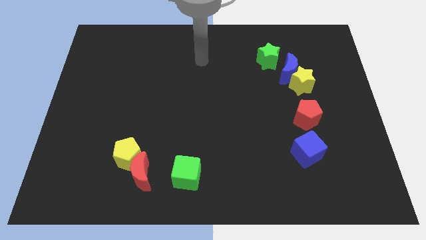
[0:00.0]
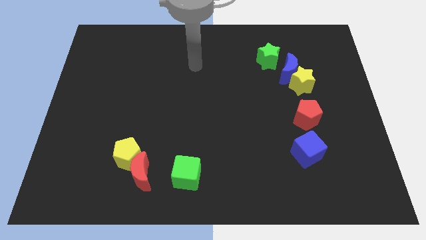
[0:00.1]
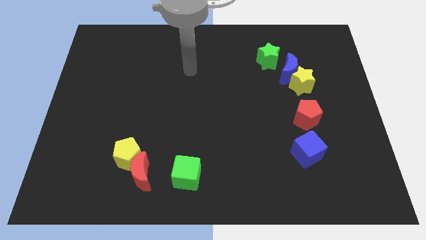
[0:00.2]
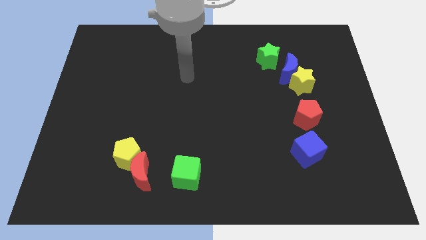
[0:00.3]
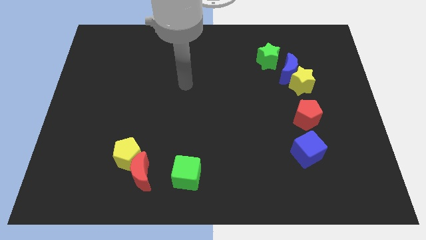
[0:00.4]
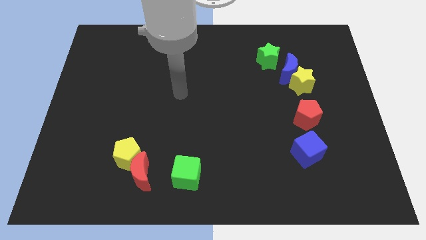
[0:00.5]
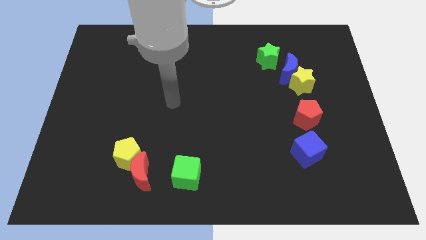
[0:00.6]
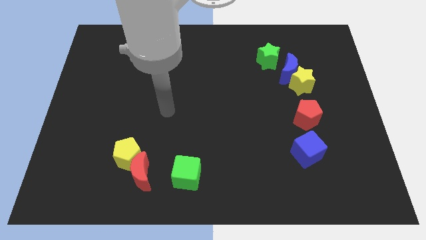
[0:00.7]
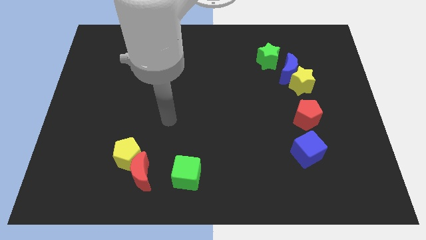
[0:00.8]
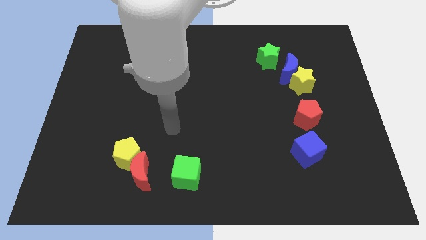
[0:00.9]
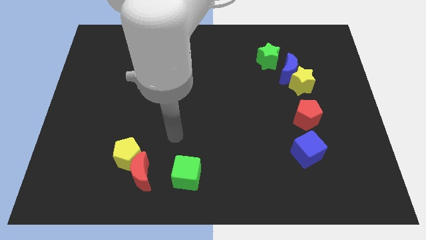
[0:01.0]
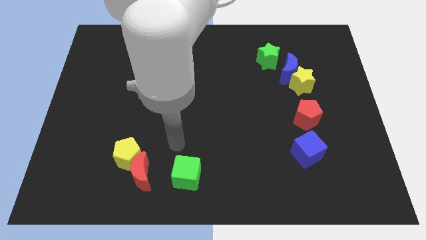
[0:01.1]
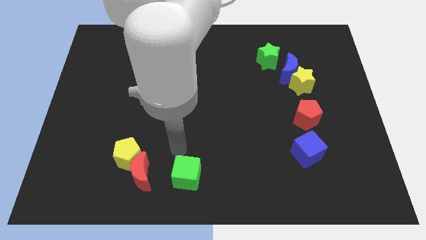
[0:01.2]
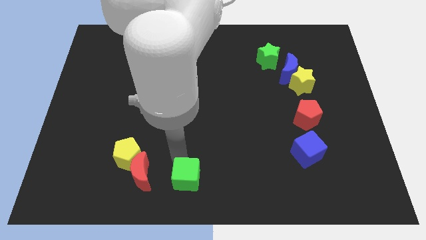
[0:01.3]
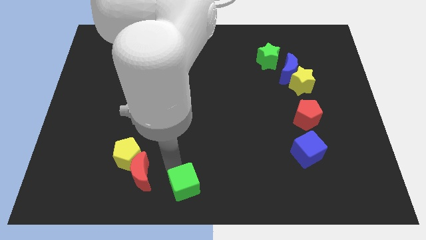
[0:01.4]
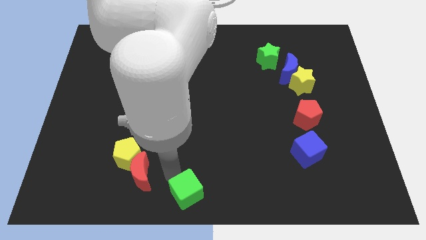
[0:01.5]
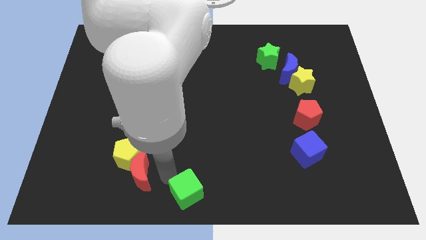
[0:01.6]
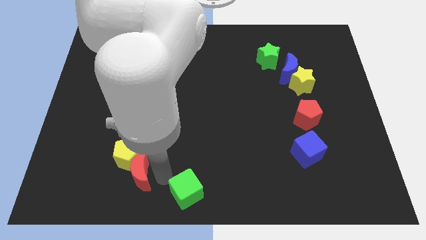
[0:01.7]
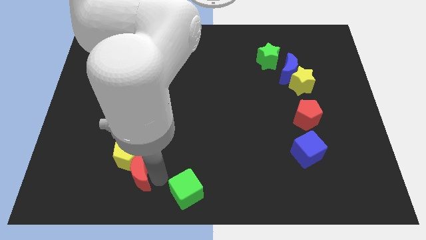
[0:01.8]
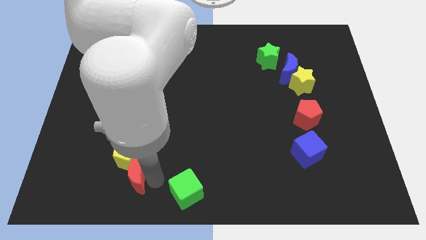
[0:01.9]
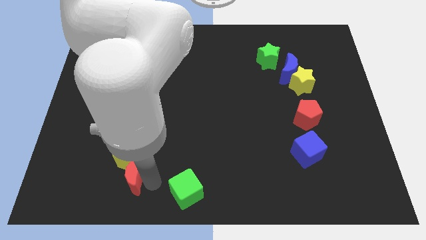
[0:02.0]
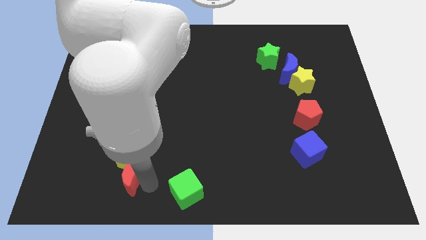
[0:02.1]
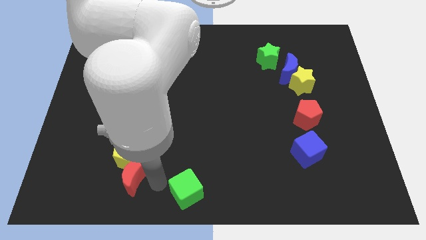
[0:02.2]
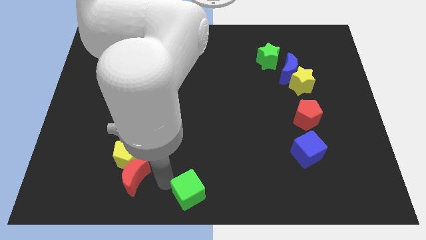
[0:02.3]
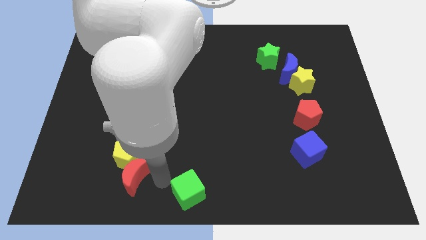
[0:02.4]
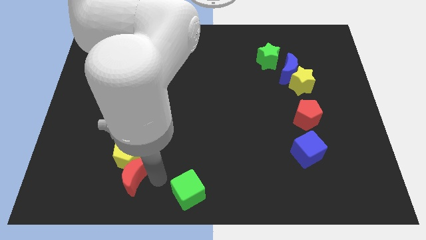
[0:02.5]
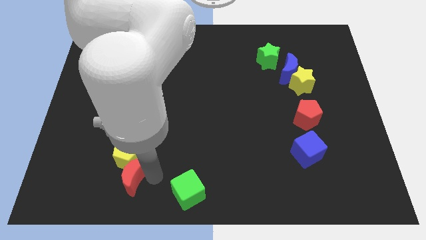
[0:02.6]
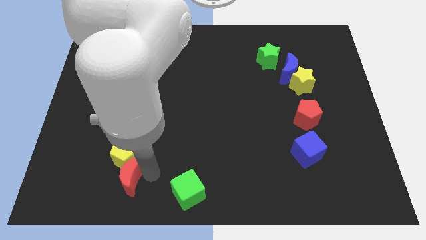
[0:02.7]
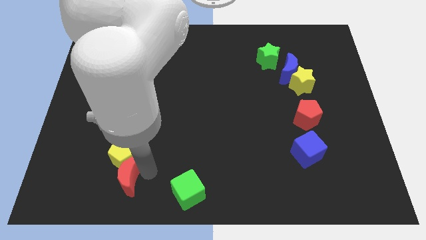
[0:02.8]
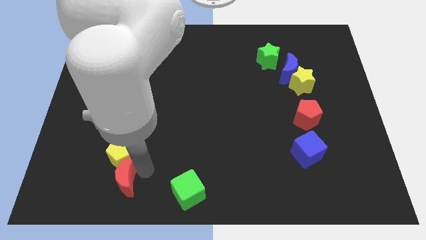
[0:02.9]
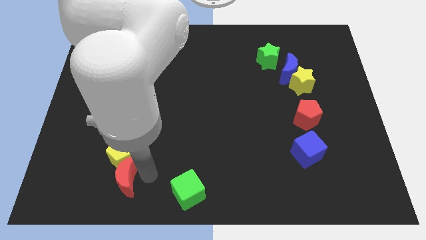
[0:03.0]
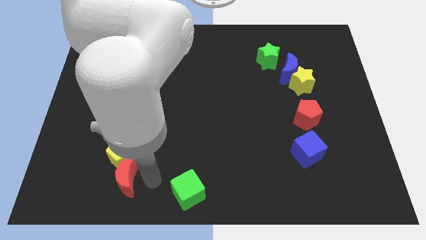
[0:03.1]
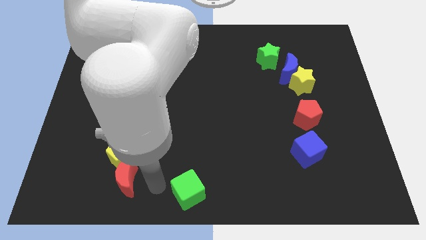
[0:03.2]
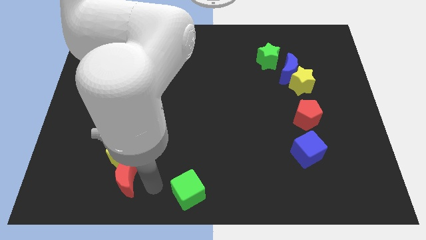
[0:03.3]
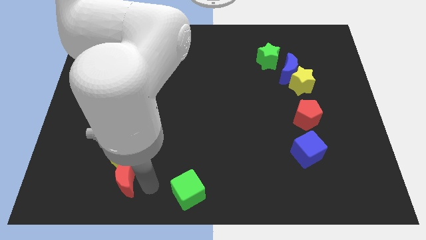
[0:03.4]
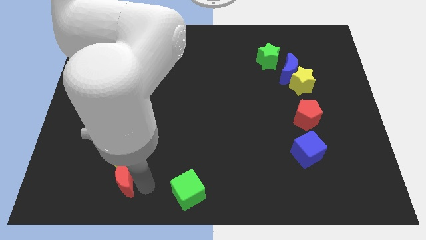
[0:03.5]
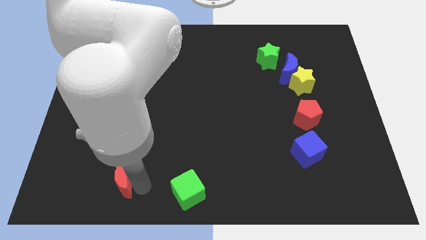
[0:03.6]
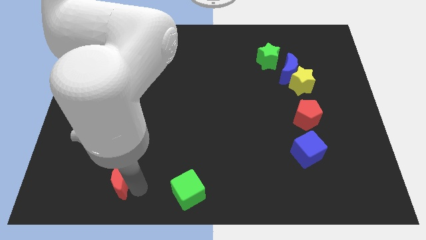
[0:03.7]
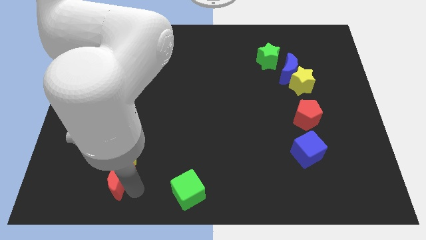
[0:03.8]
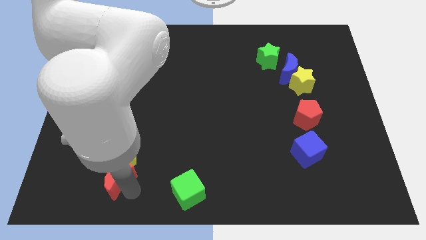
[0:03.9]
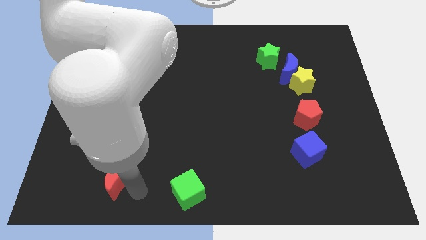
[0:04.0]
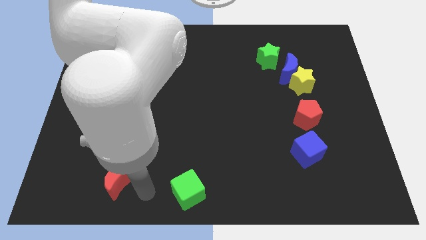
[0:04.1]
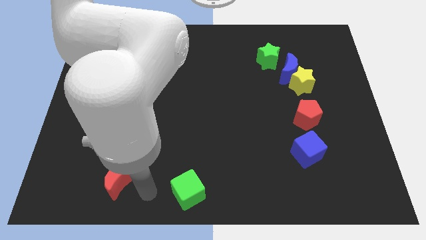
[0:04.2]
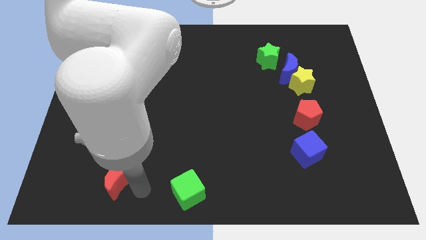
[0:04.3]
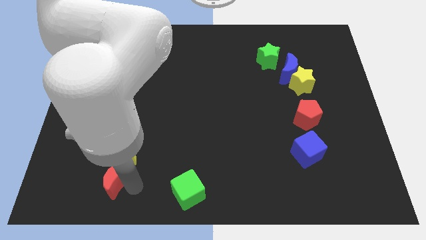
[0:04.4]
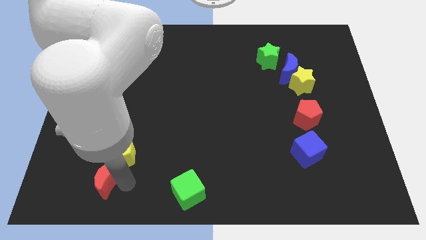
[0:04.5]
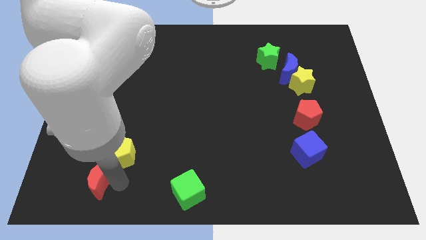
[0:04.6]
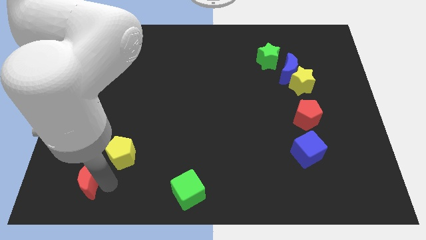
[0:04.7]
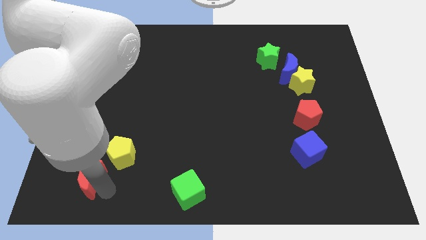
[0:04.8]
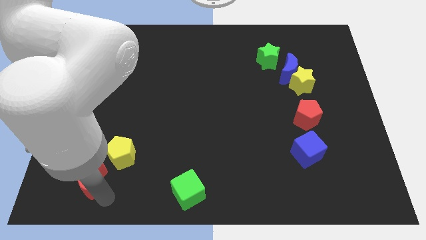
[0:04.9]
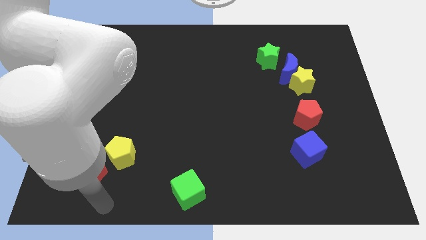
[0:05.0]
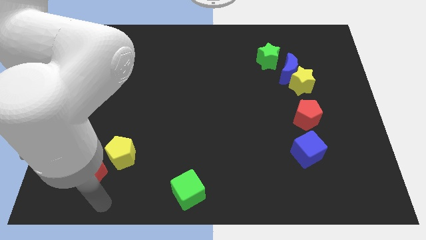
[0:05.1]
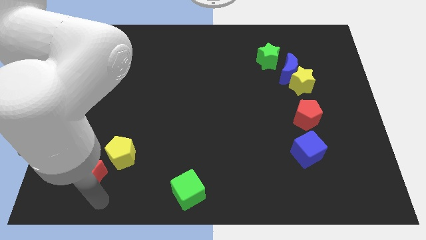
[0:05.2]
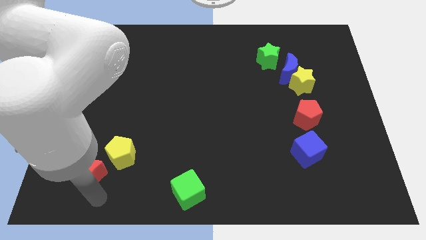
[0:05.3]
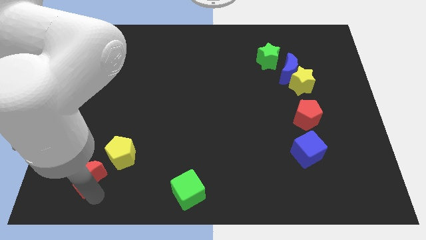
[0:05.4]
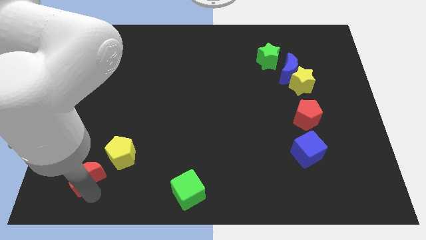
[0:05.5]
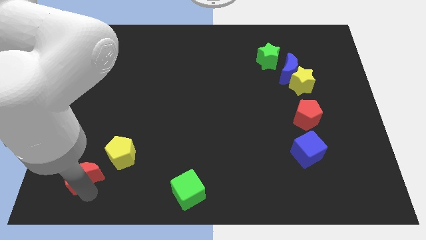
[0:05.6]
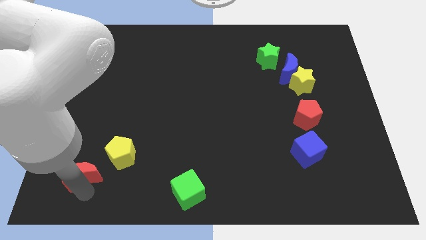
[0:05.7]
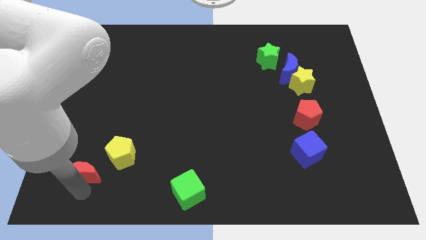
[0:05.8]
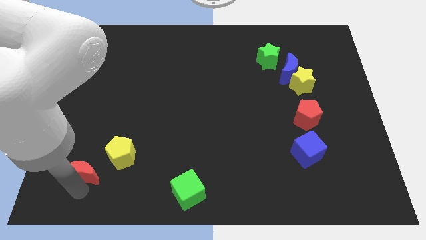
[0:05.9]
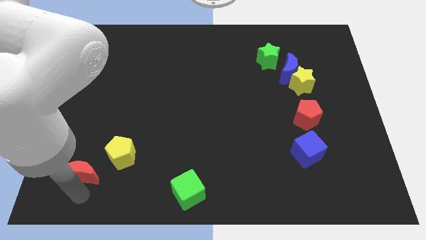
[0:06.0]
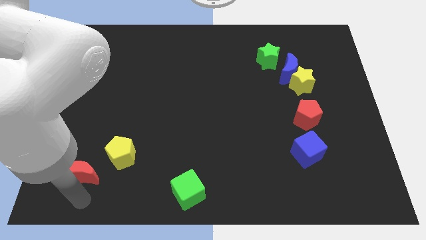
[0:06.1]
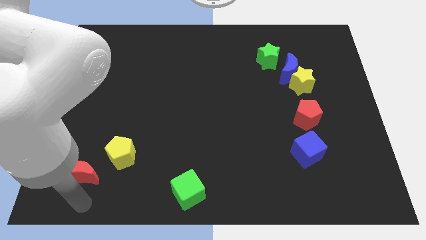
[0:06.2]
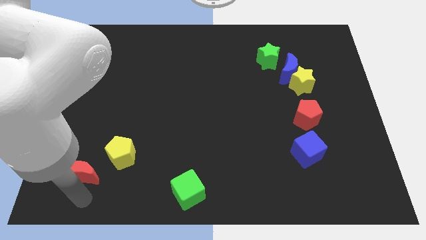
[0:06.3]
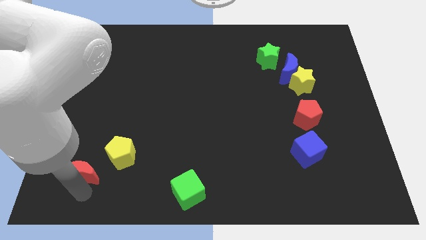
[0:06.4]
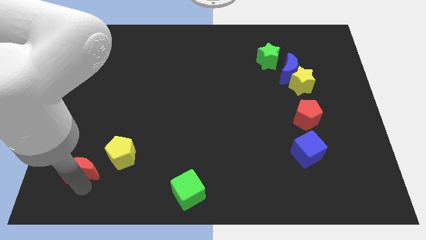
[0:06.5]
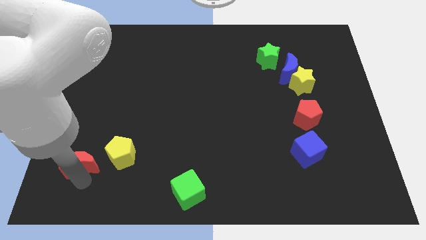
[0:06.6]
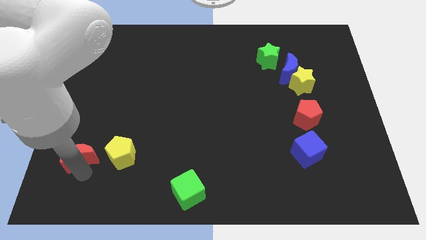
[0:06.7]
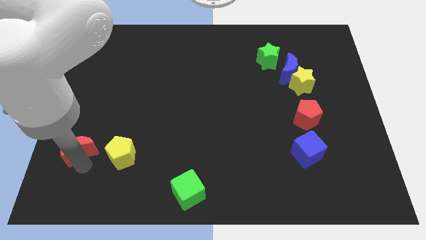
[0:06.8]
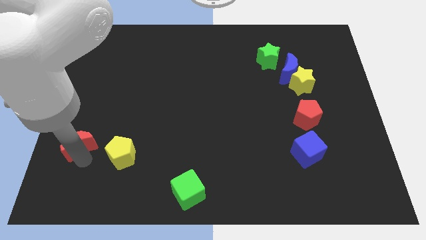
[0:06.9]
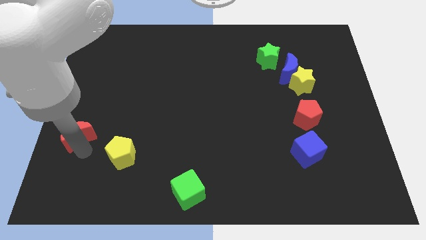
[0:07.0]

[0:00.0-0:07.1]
move the red moon to the center left
